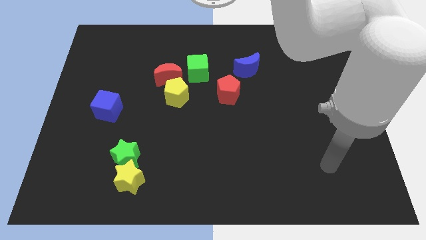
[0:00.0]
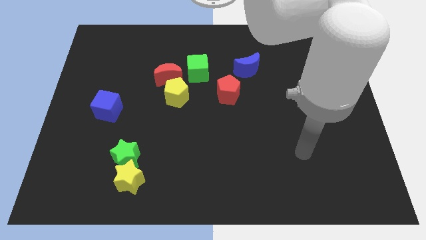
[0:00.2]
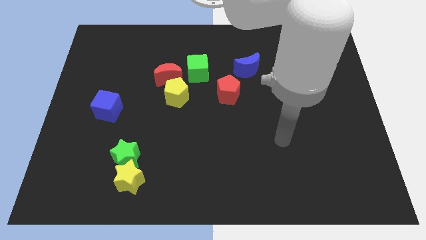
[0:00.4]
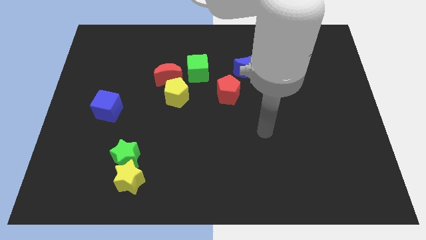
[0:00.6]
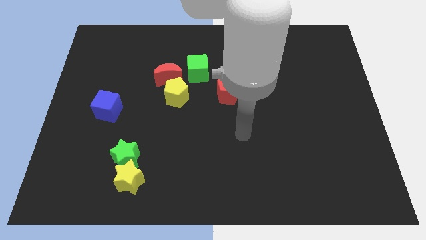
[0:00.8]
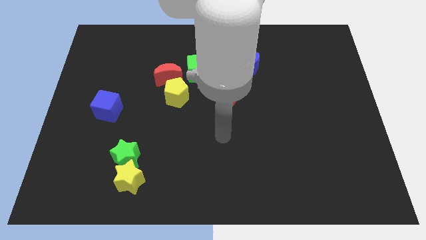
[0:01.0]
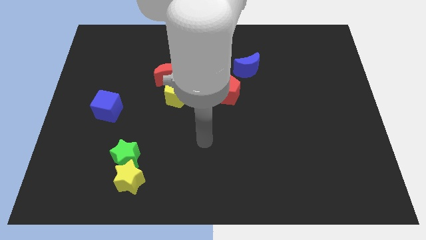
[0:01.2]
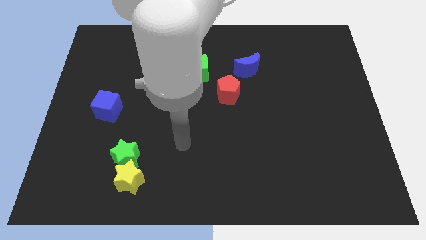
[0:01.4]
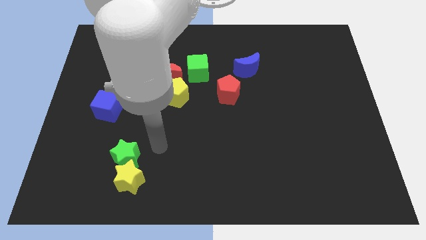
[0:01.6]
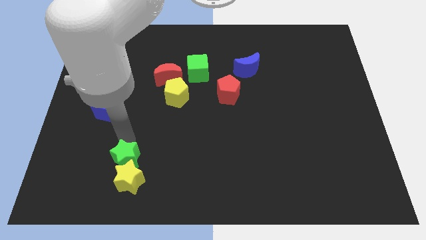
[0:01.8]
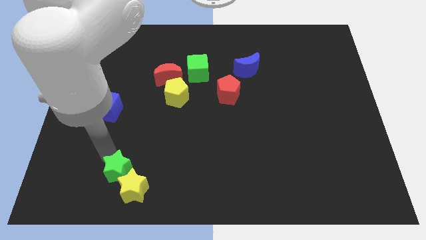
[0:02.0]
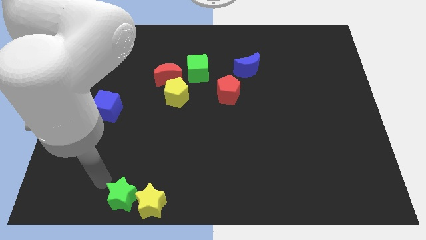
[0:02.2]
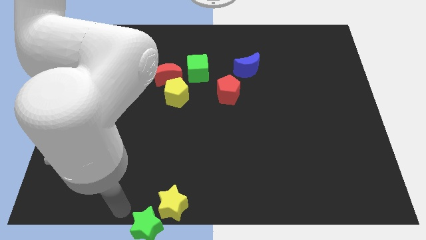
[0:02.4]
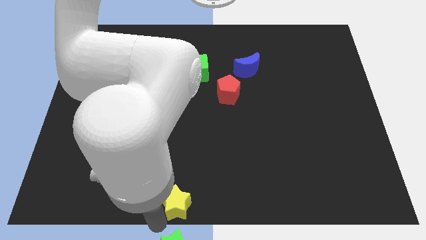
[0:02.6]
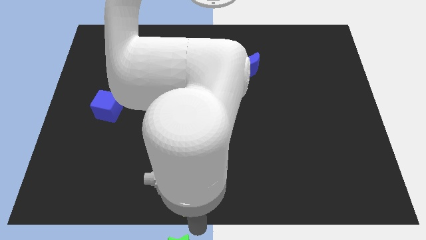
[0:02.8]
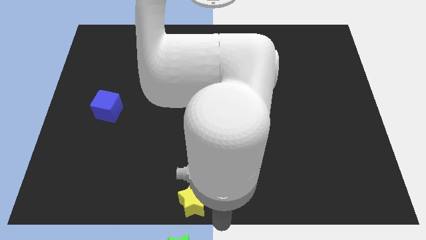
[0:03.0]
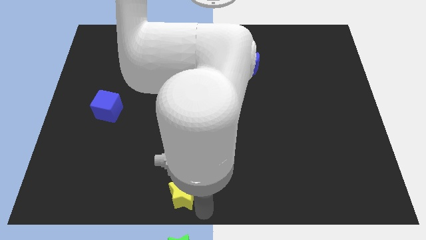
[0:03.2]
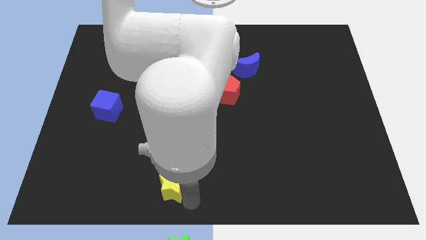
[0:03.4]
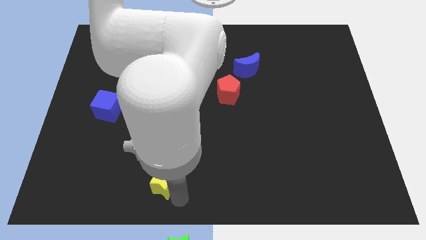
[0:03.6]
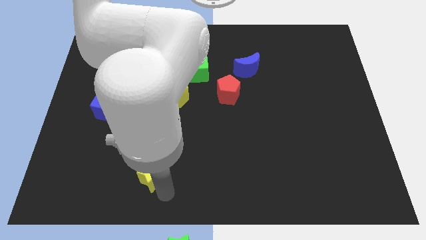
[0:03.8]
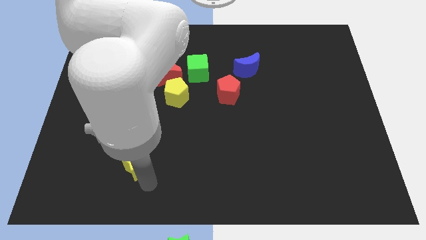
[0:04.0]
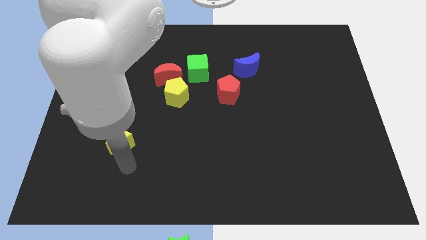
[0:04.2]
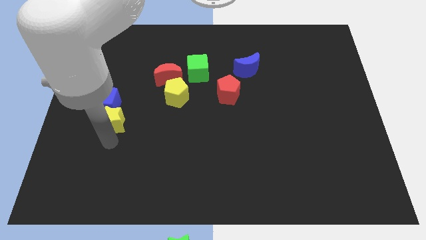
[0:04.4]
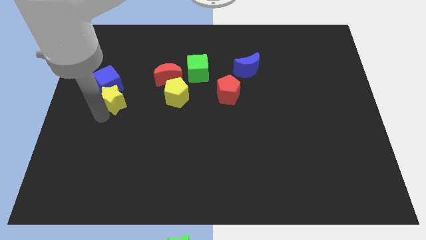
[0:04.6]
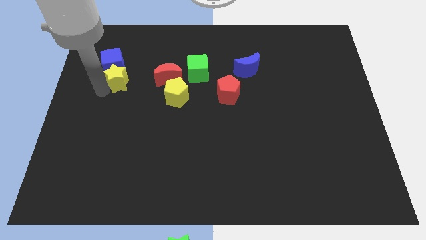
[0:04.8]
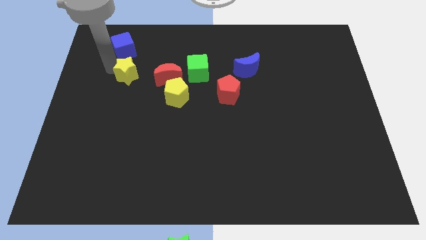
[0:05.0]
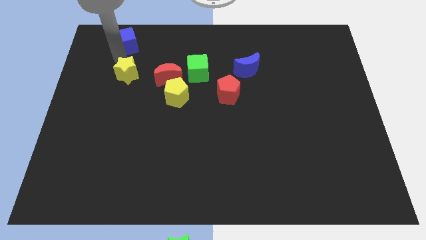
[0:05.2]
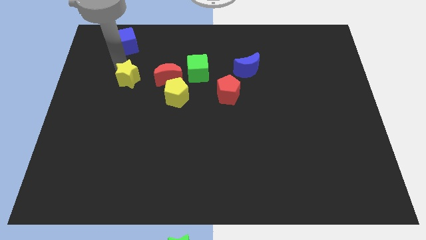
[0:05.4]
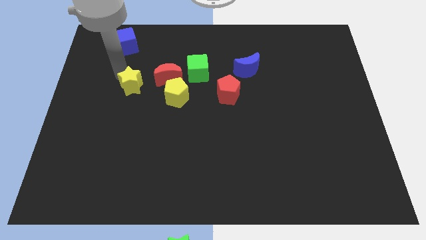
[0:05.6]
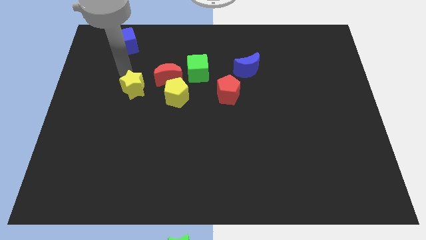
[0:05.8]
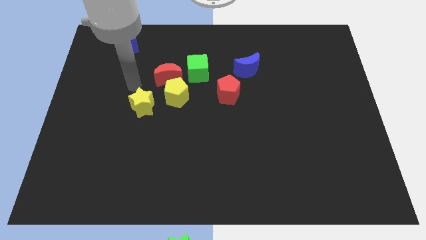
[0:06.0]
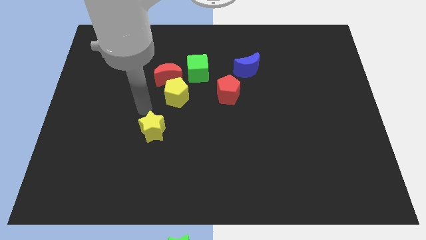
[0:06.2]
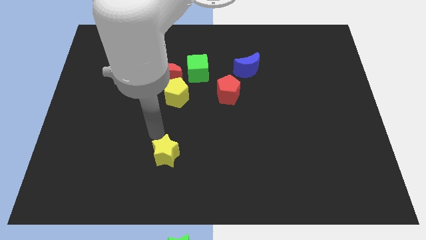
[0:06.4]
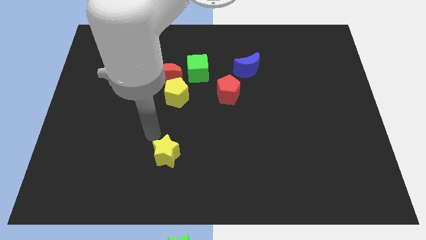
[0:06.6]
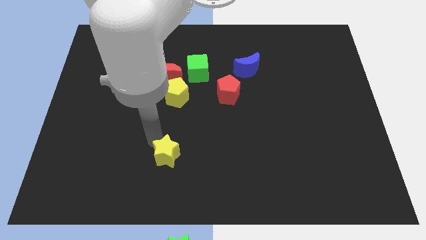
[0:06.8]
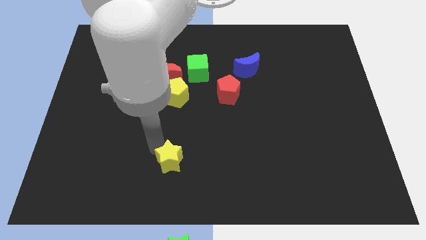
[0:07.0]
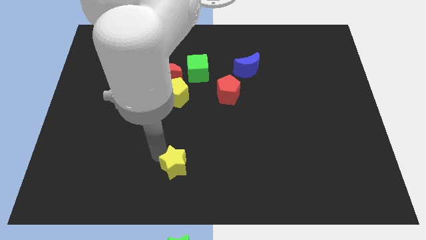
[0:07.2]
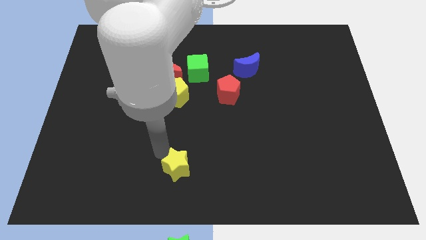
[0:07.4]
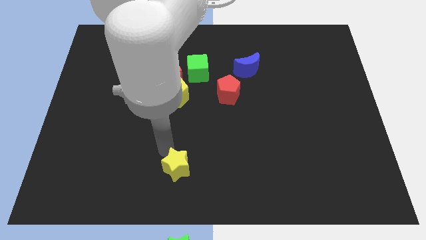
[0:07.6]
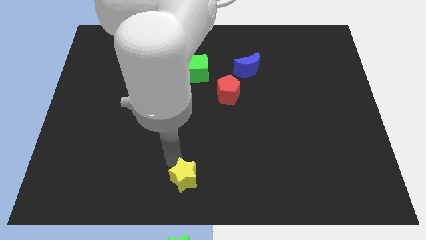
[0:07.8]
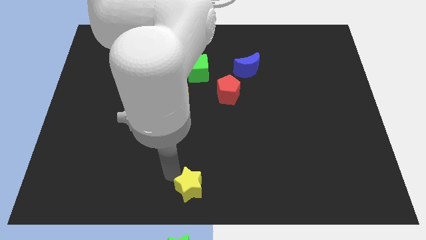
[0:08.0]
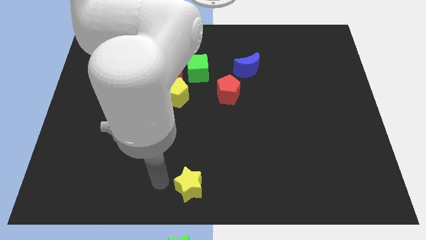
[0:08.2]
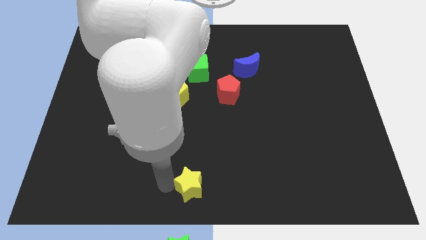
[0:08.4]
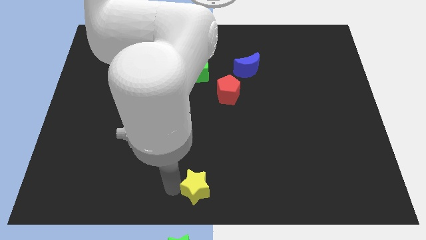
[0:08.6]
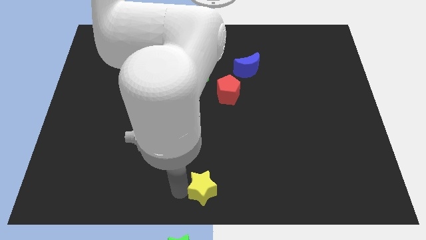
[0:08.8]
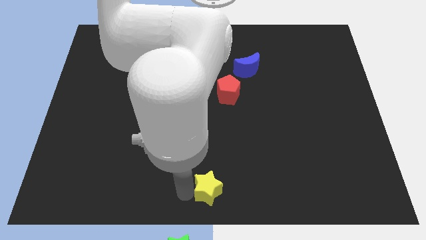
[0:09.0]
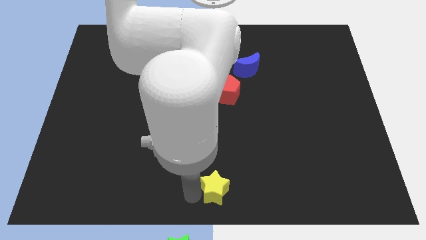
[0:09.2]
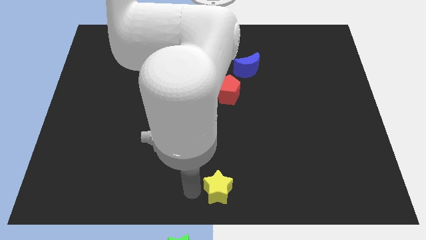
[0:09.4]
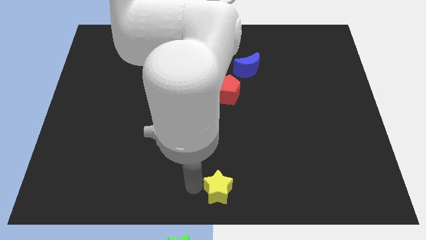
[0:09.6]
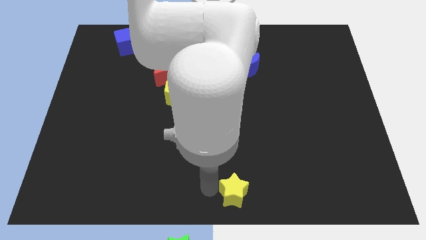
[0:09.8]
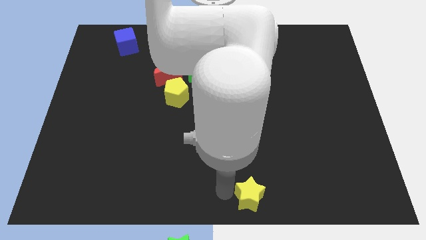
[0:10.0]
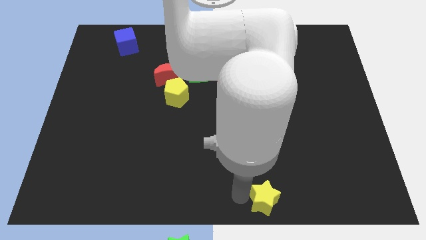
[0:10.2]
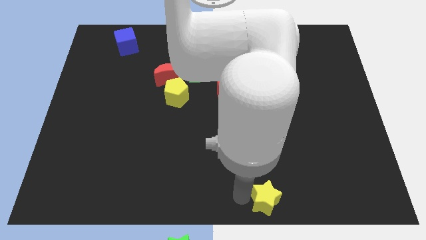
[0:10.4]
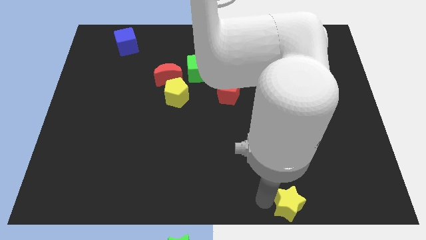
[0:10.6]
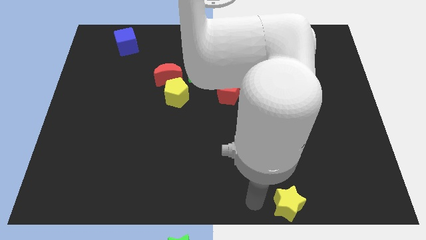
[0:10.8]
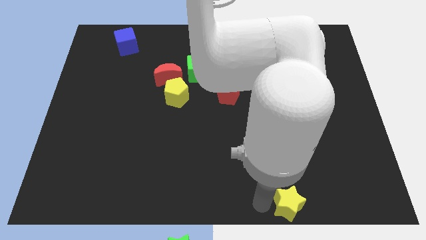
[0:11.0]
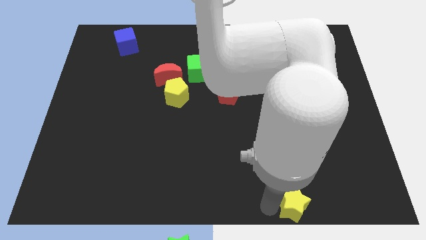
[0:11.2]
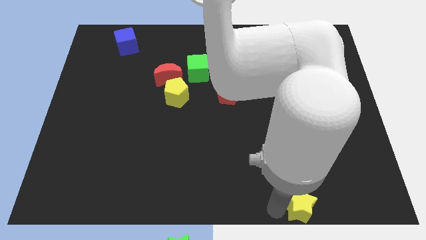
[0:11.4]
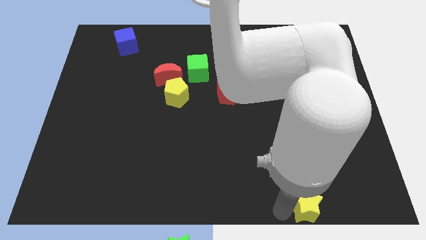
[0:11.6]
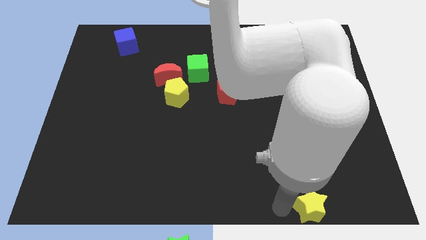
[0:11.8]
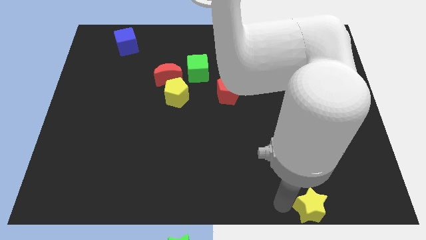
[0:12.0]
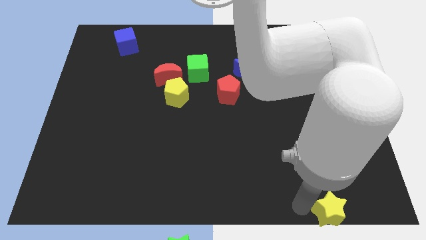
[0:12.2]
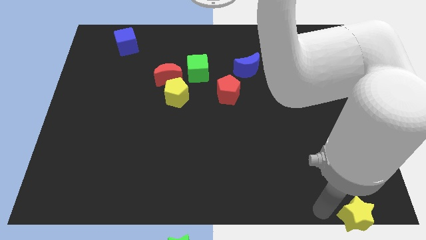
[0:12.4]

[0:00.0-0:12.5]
move the yellow star to the bottom right
